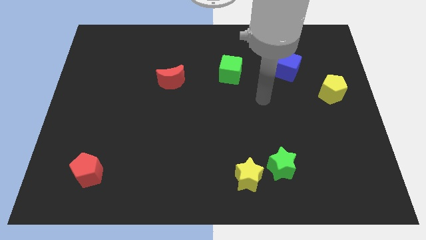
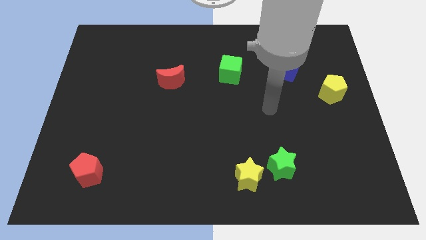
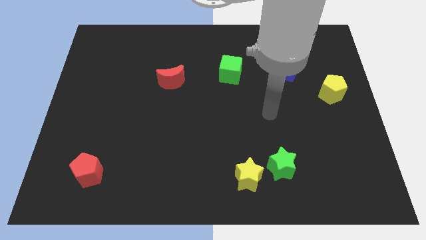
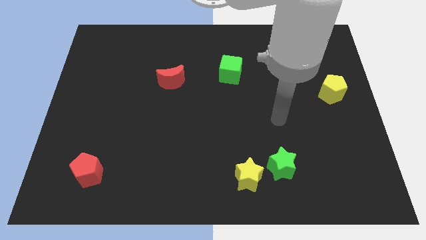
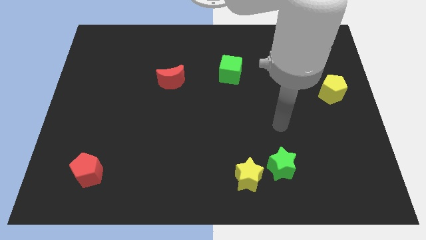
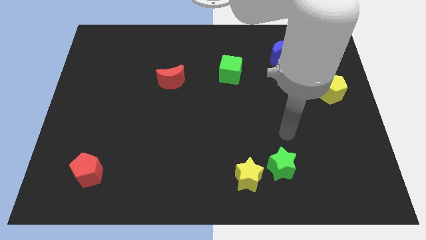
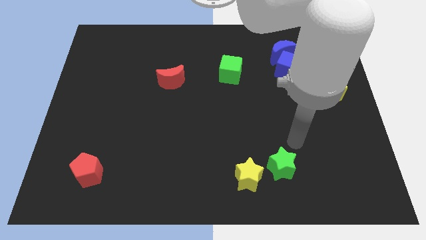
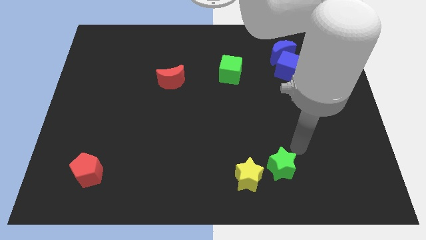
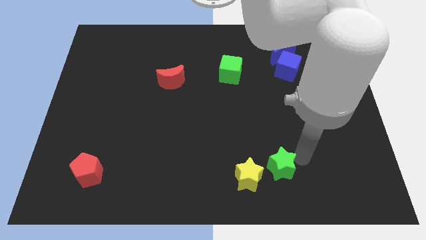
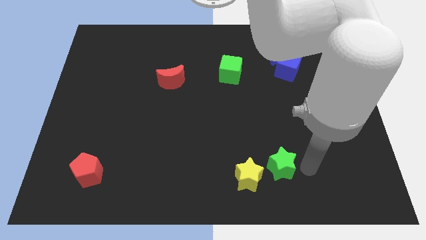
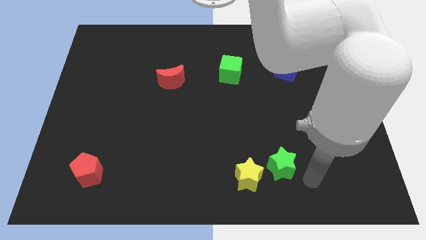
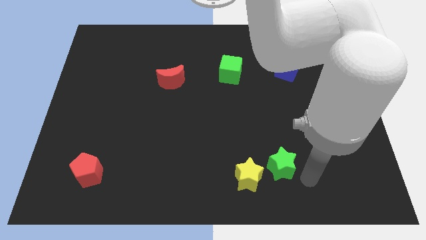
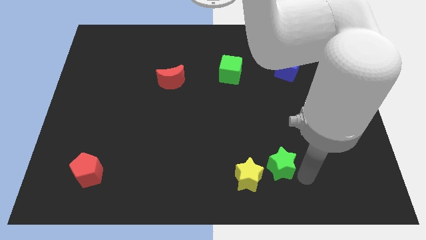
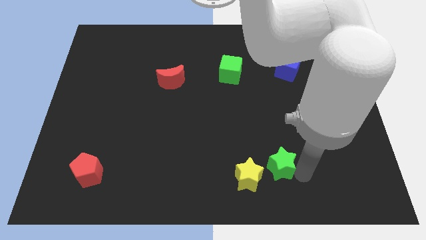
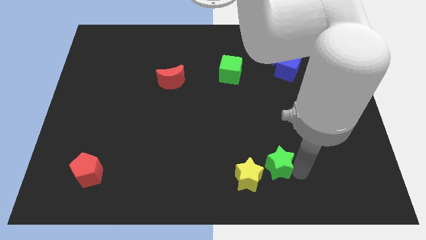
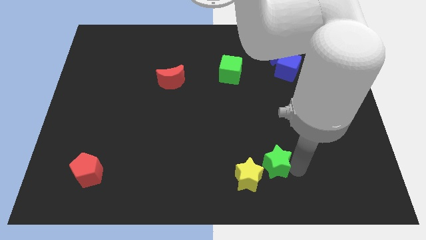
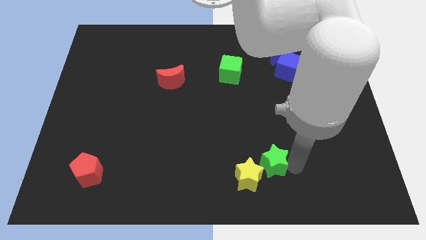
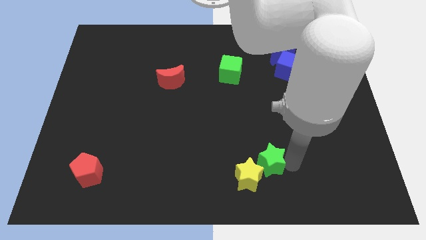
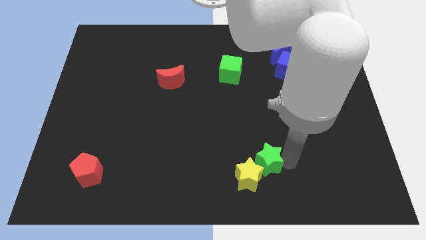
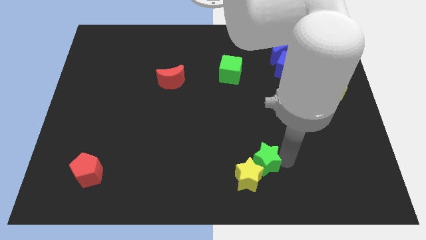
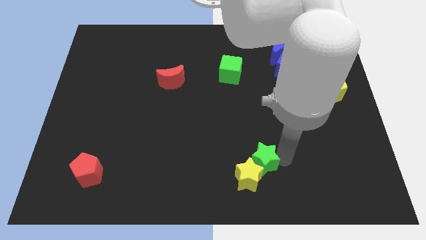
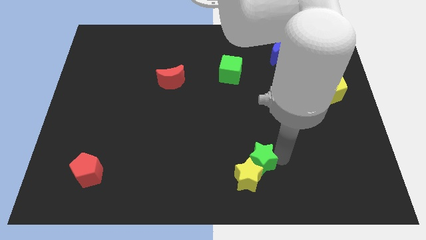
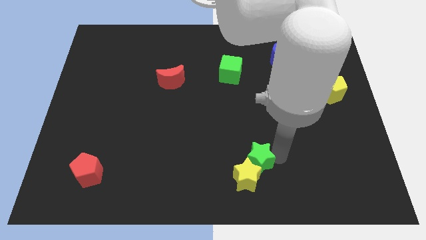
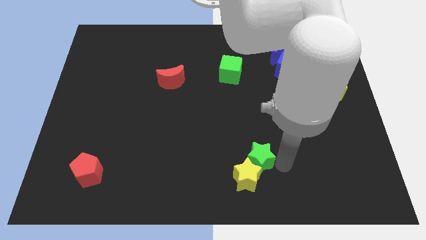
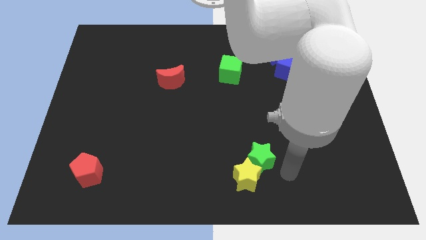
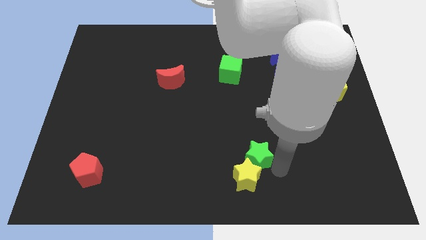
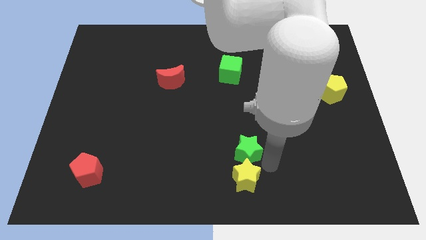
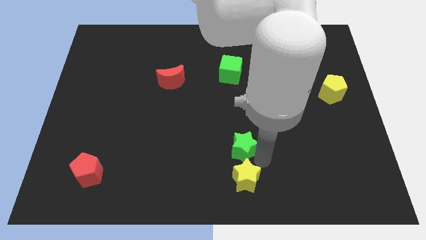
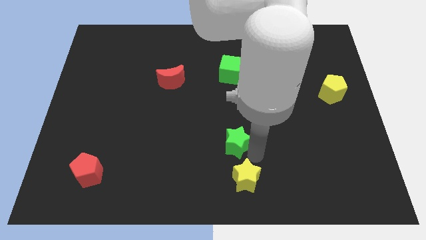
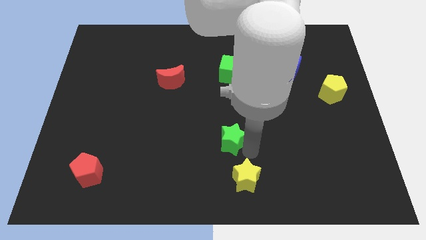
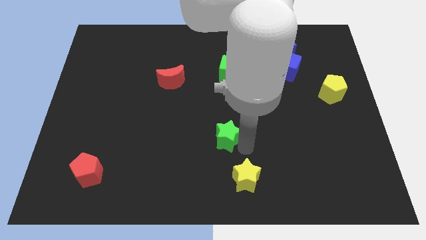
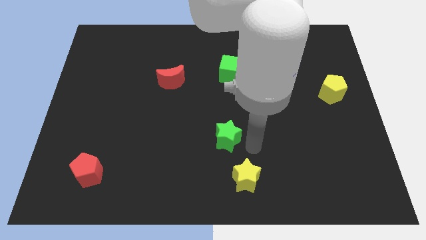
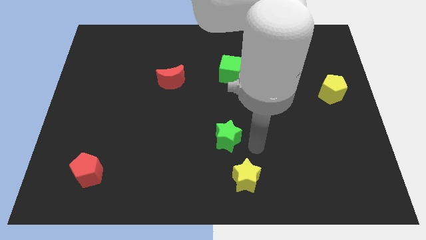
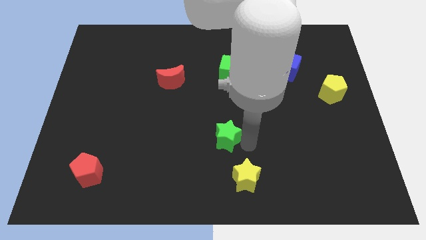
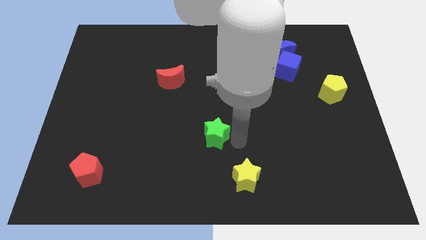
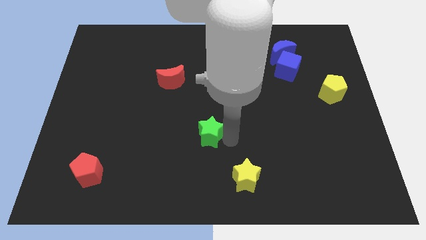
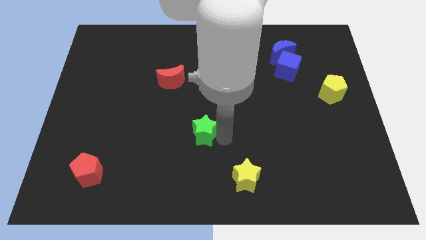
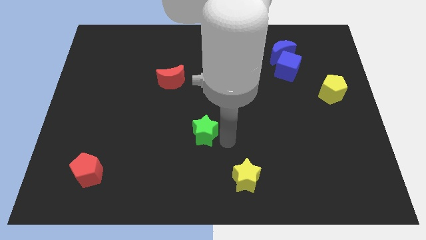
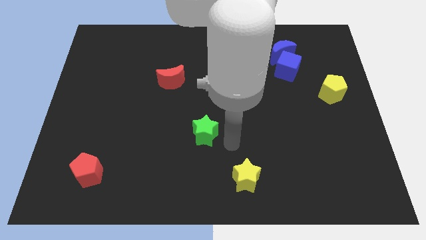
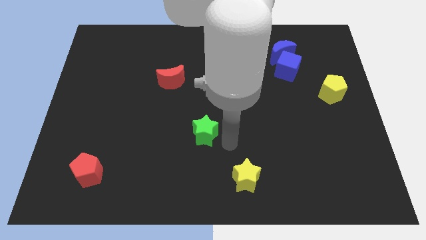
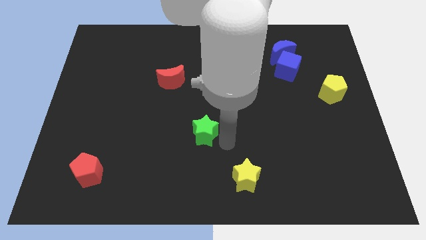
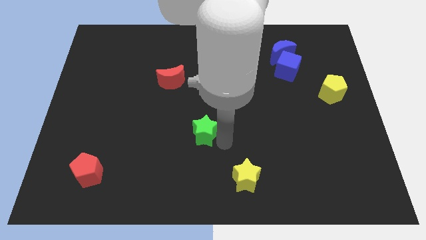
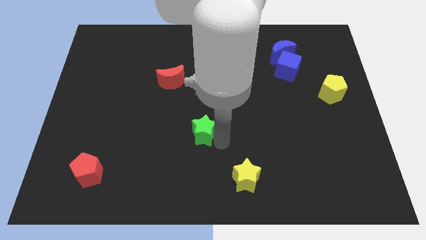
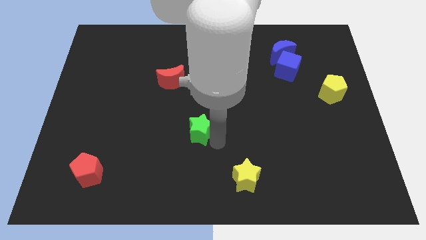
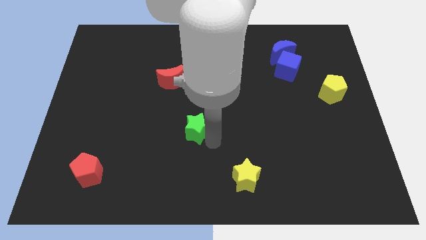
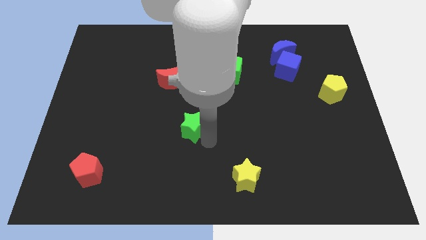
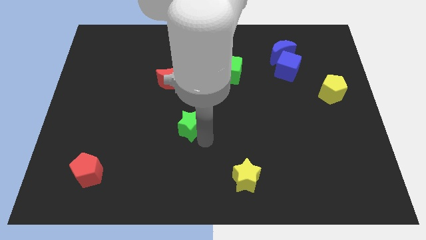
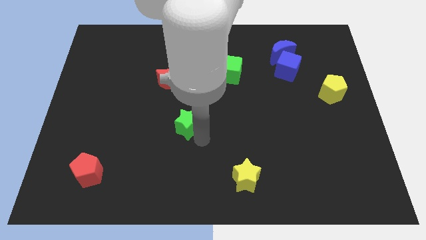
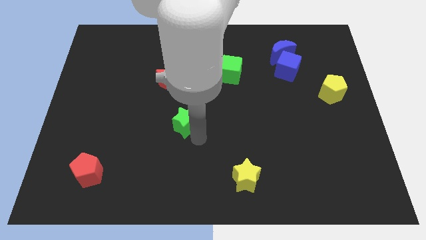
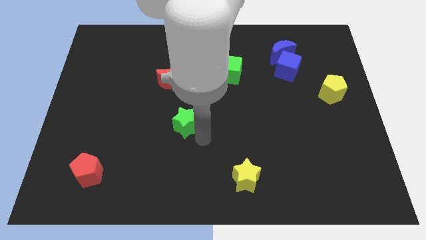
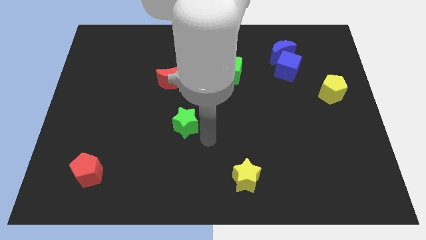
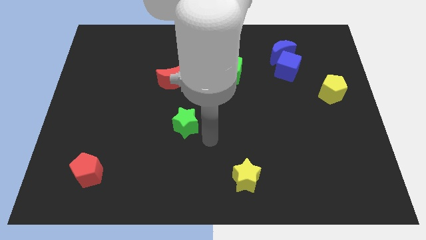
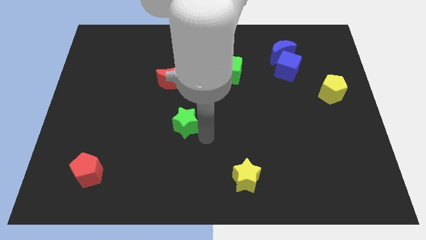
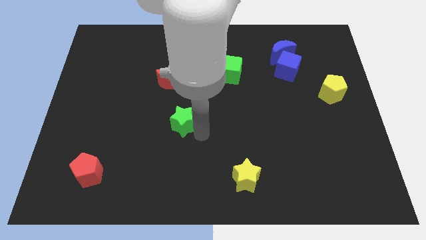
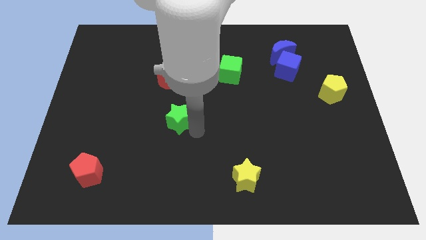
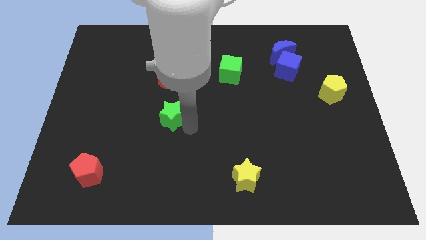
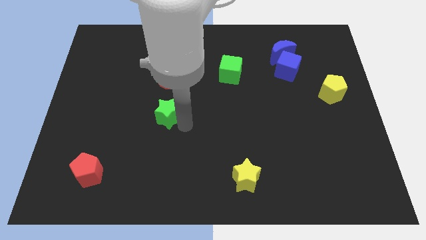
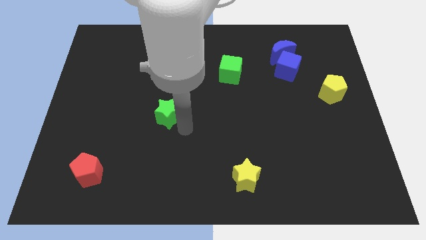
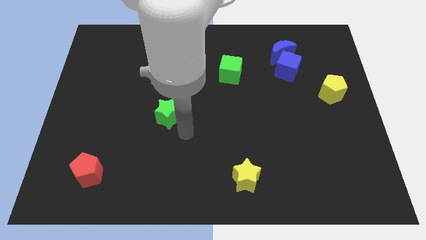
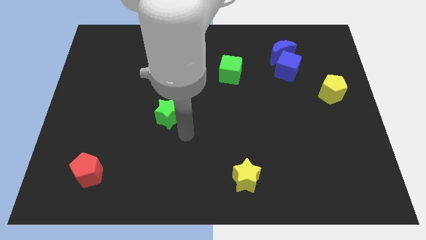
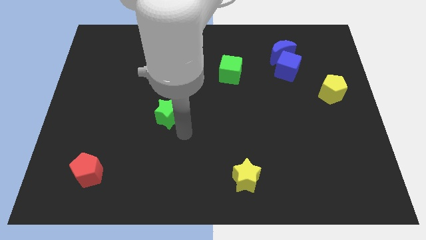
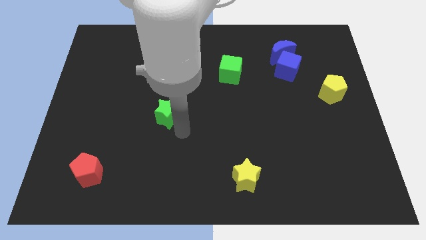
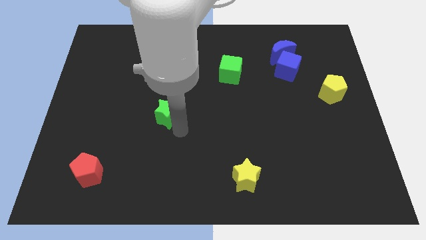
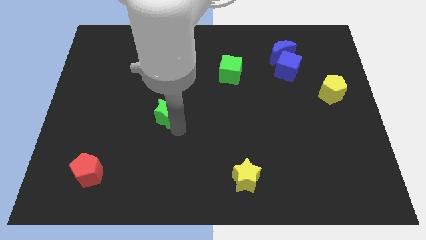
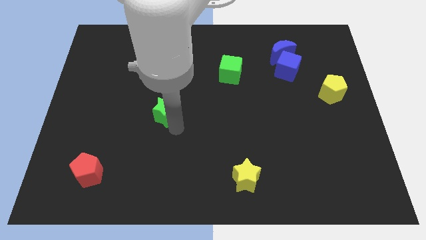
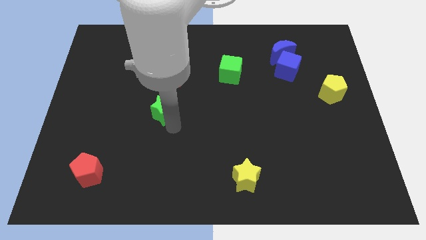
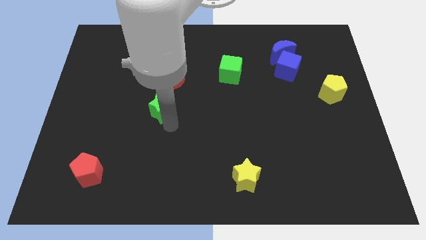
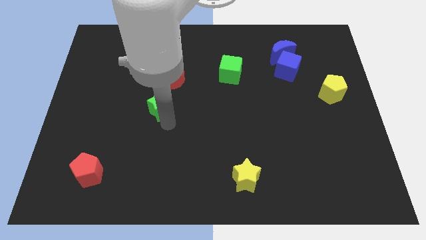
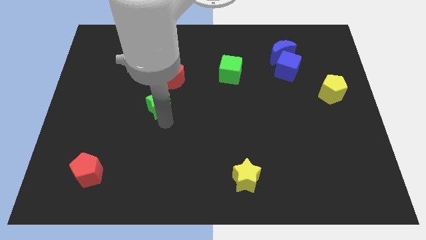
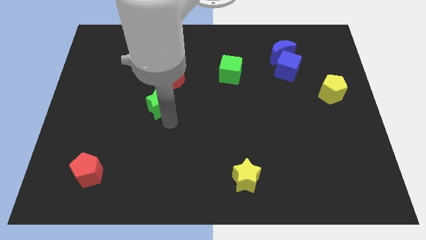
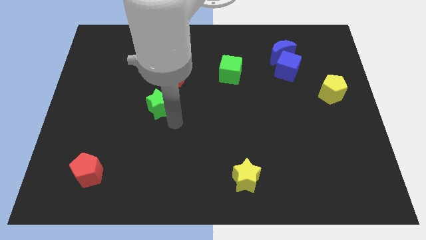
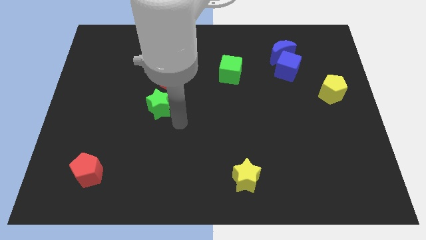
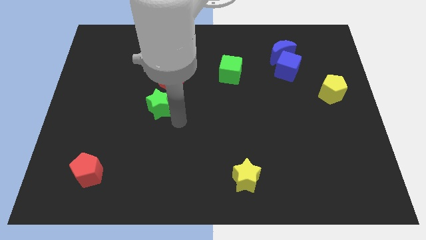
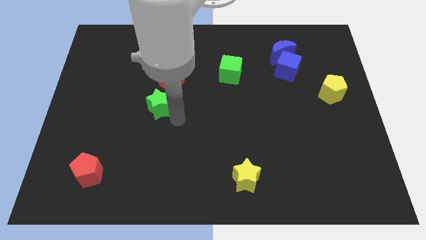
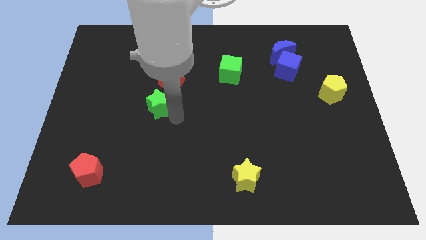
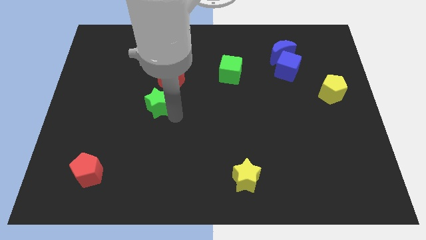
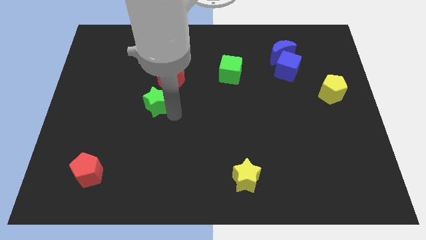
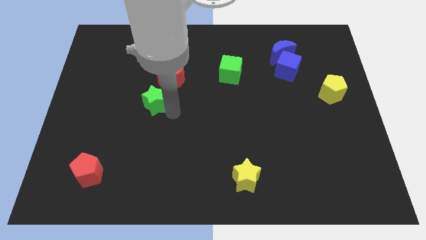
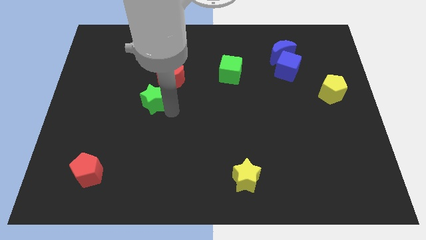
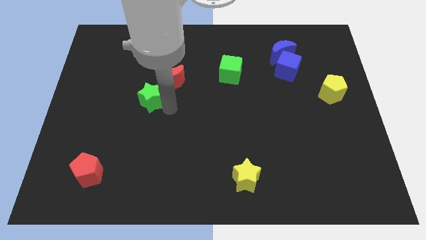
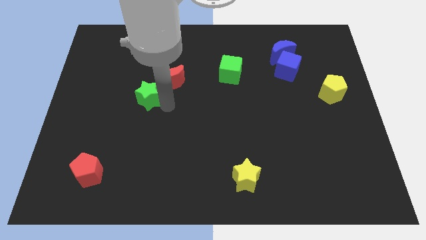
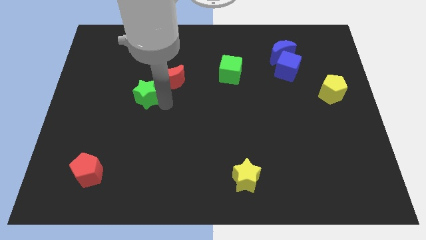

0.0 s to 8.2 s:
slide the green star to the left side of the red moon
